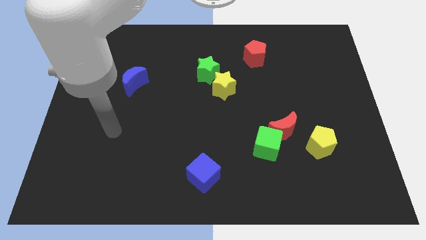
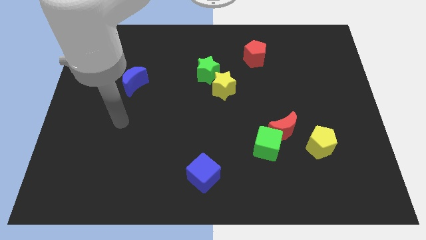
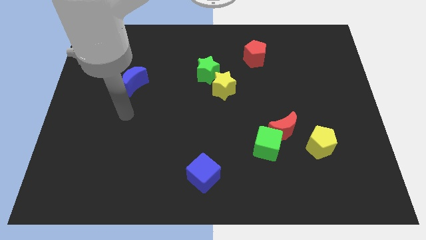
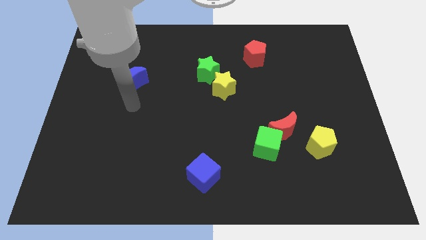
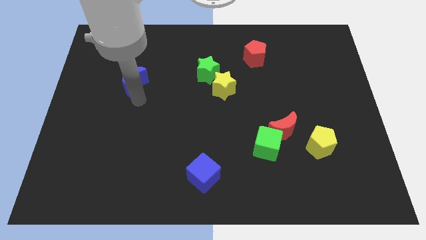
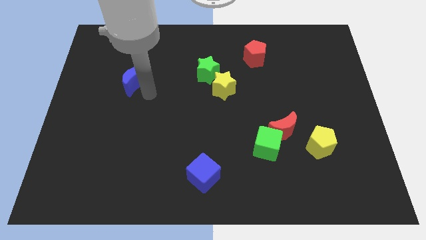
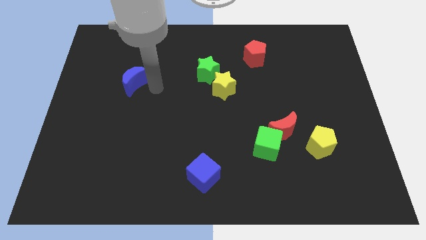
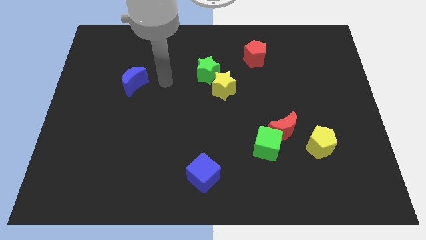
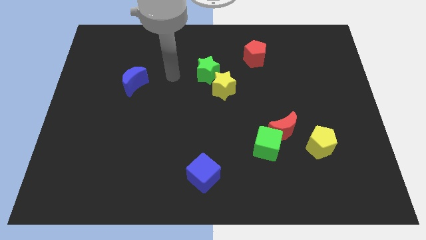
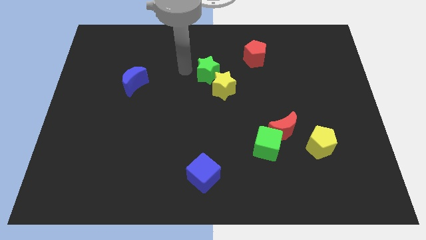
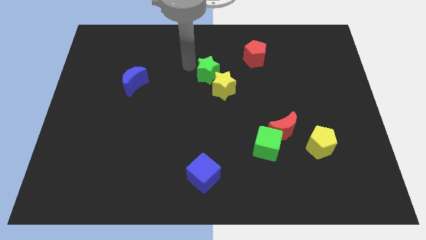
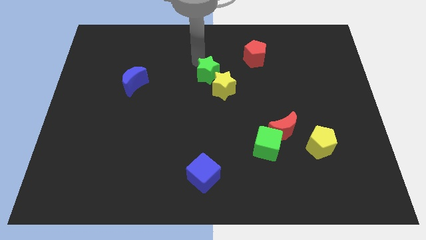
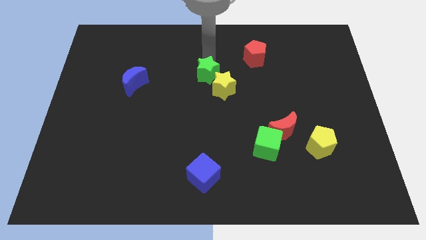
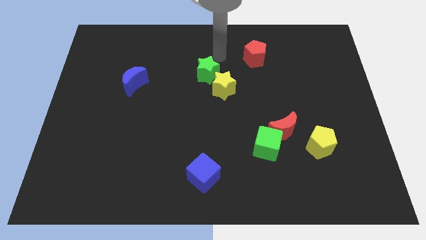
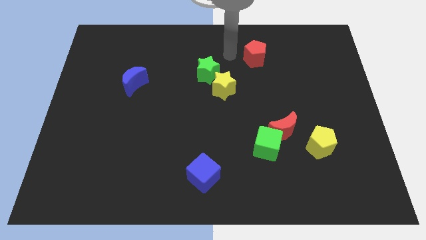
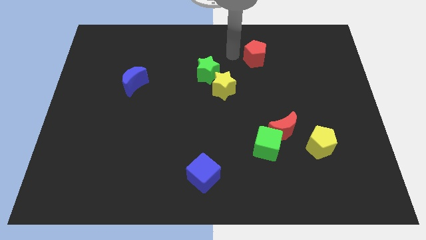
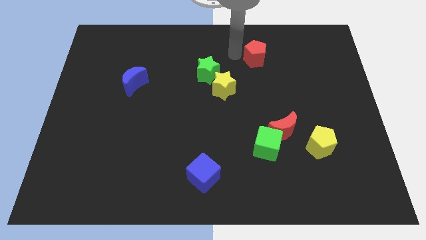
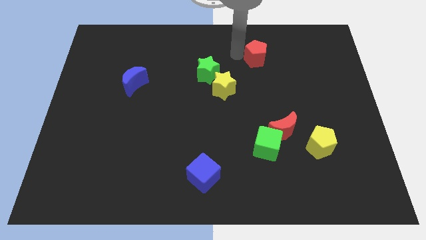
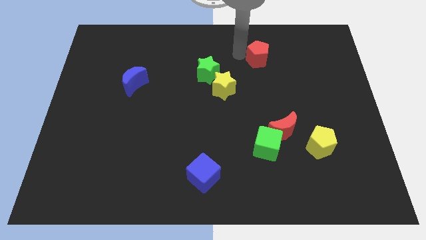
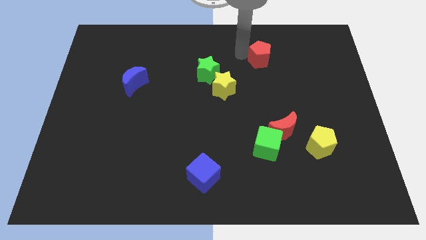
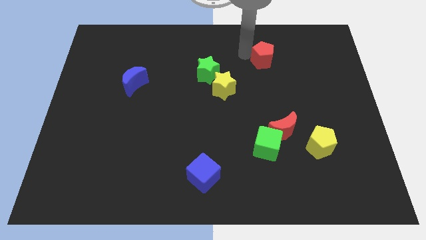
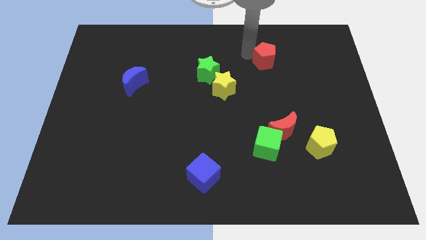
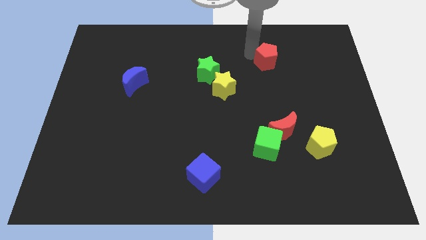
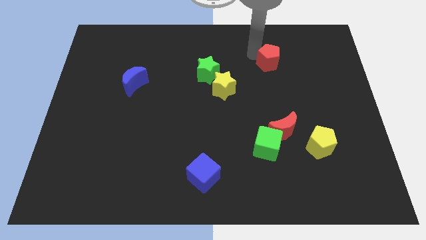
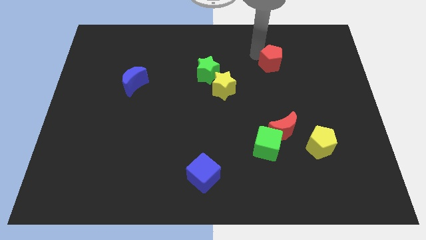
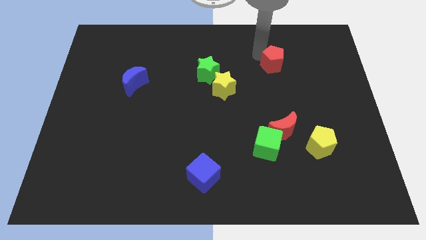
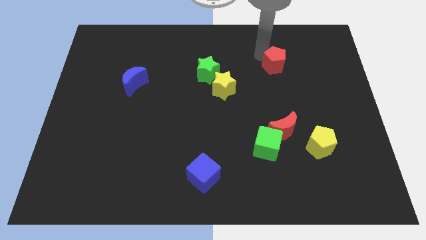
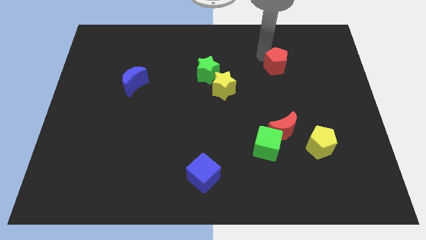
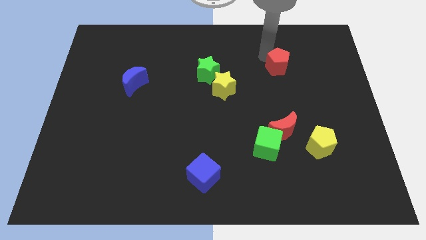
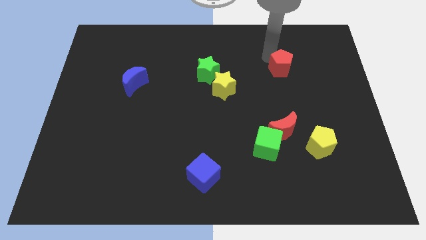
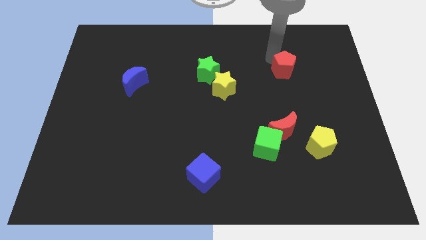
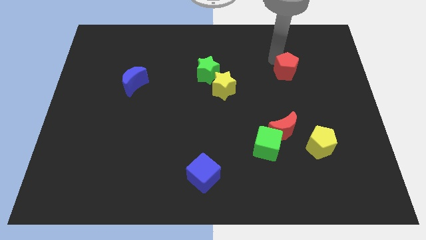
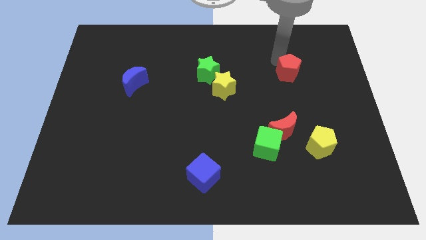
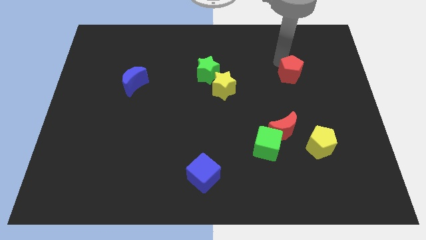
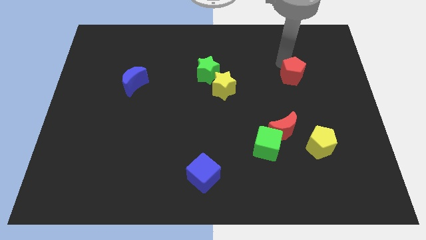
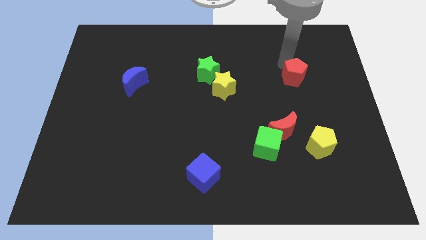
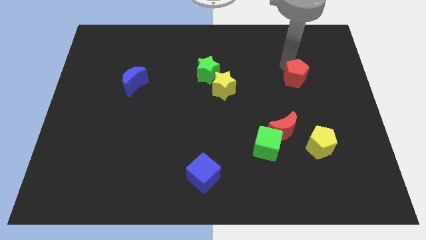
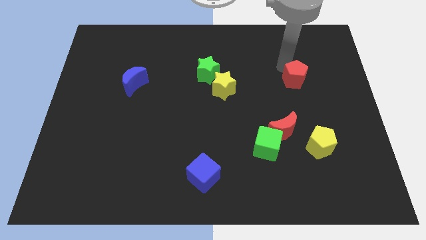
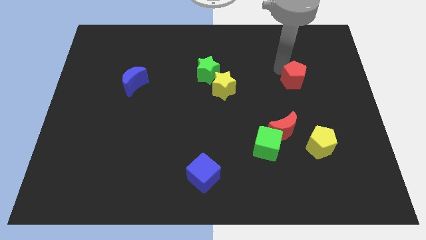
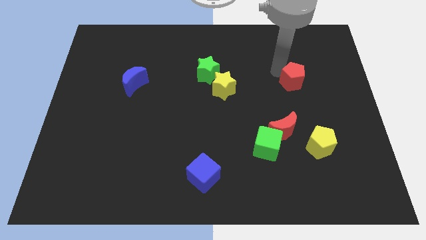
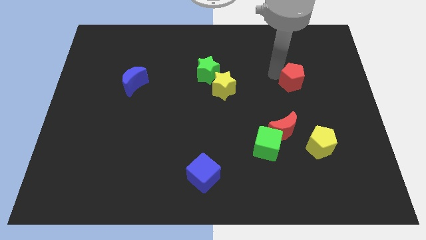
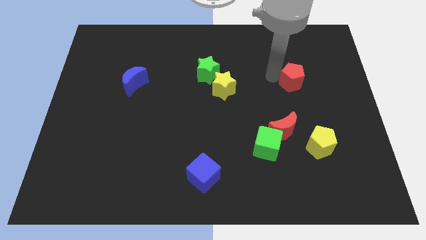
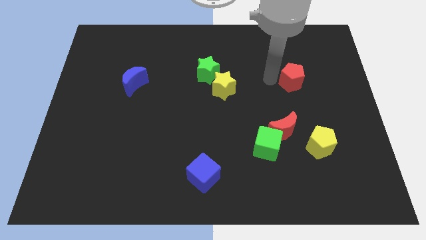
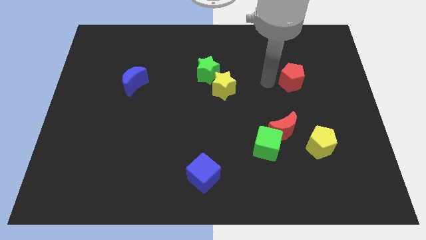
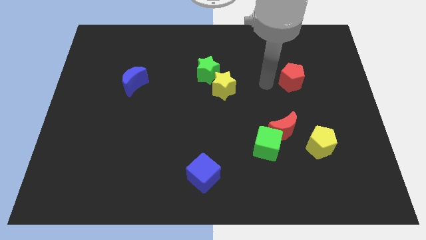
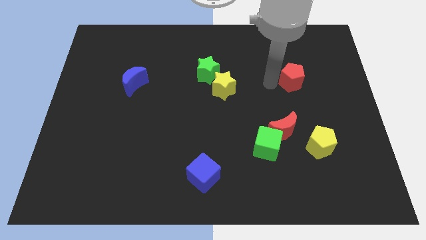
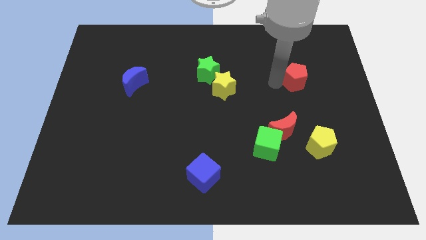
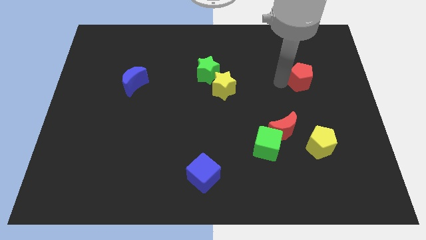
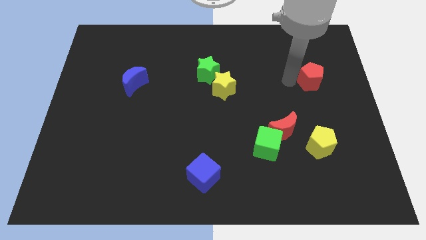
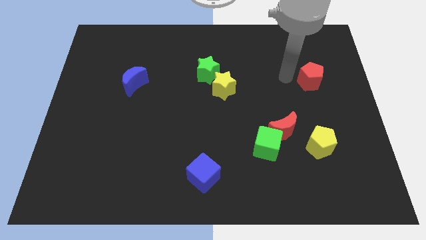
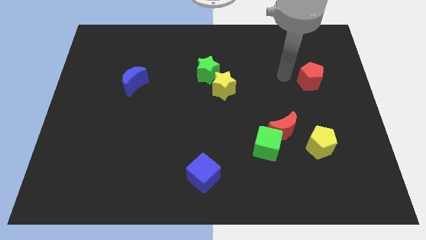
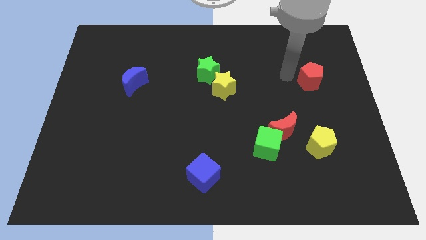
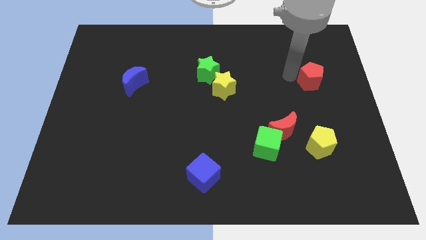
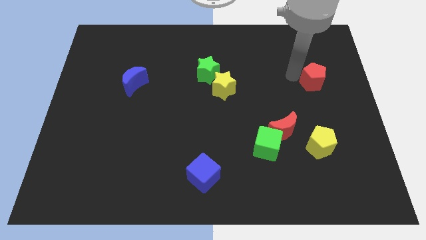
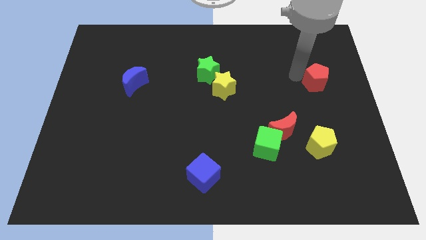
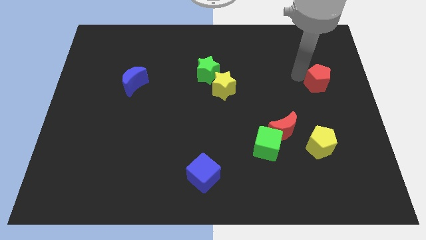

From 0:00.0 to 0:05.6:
move the red pentagon to the center right

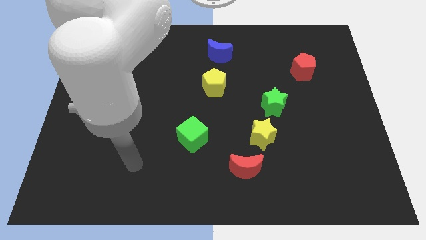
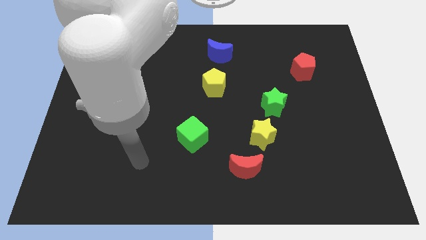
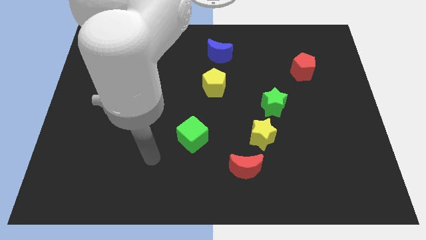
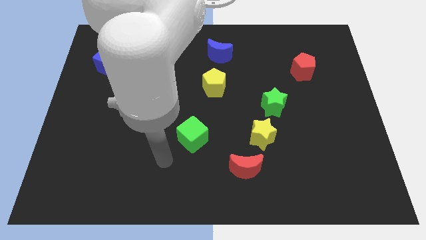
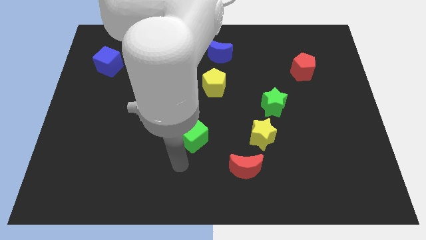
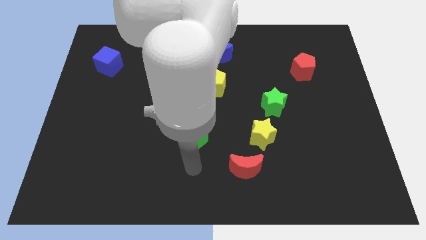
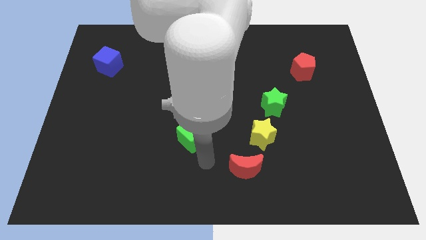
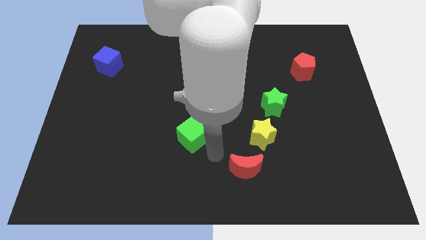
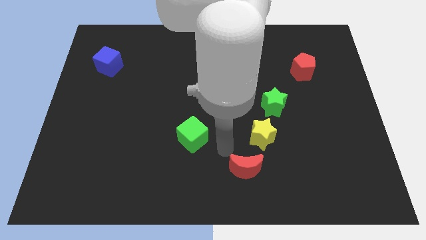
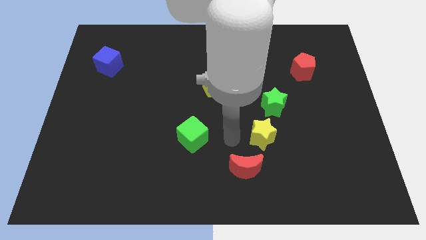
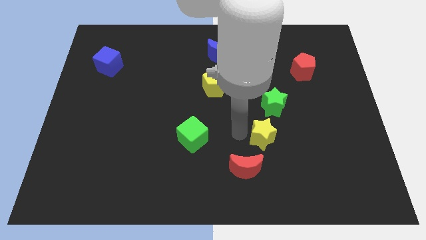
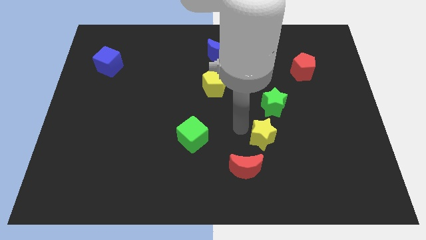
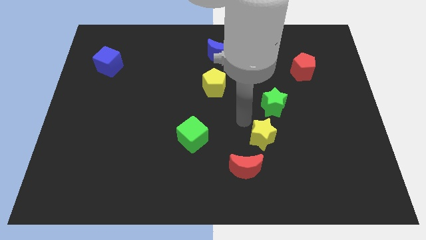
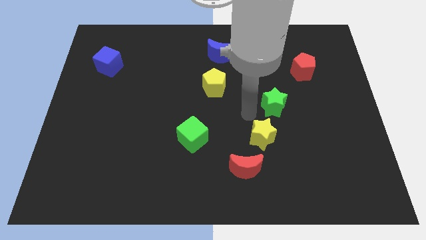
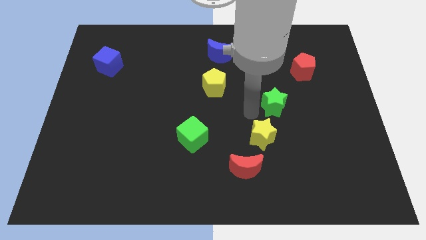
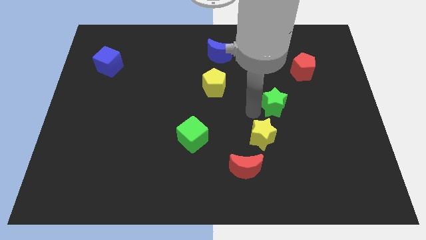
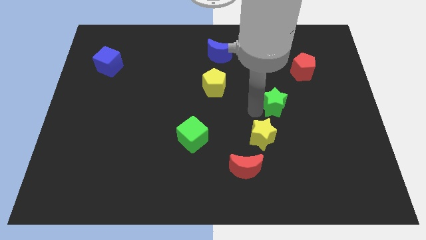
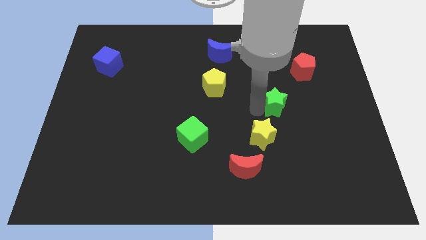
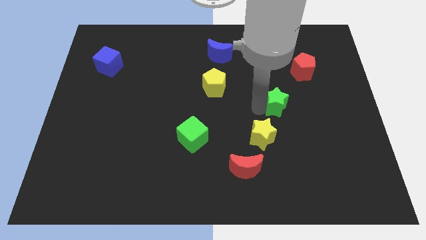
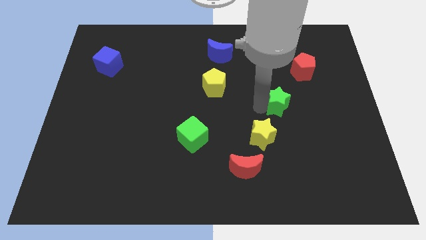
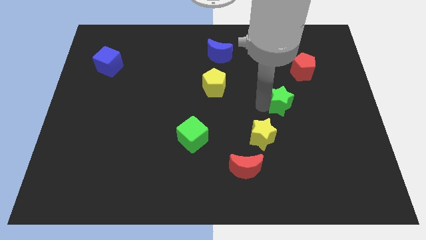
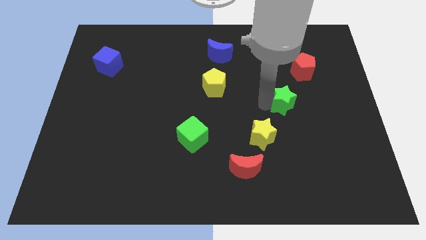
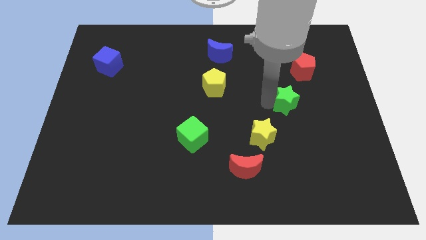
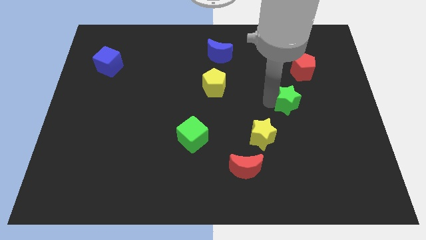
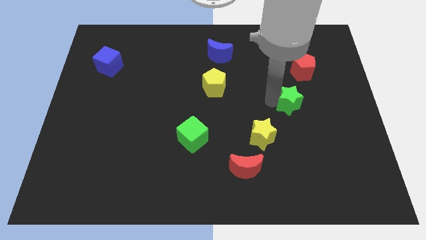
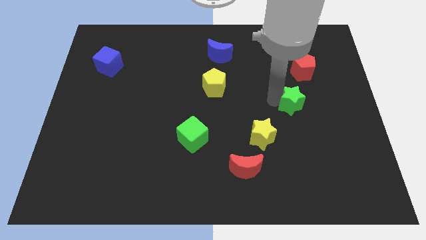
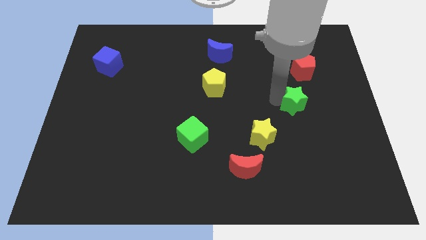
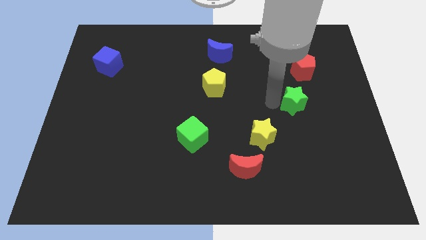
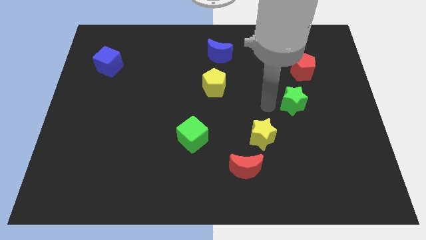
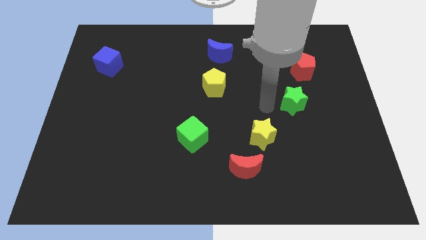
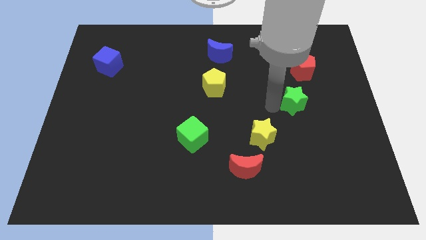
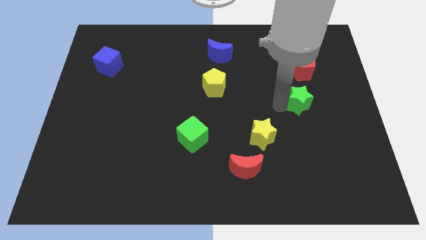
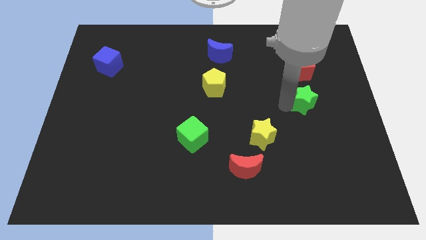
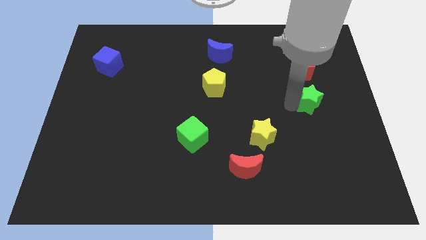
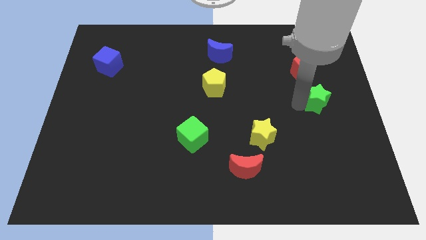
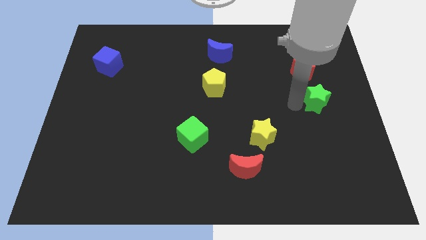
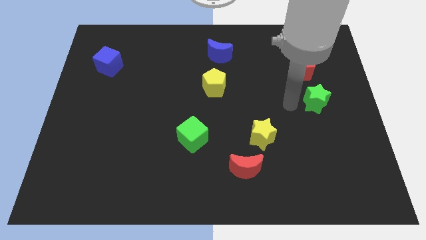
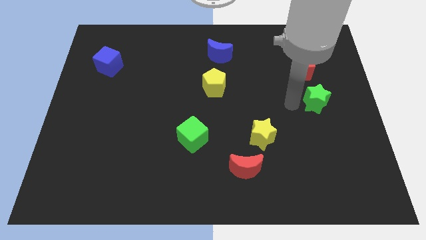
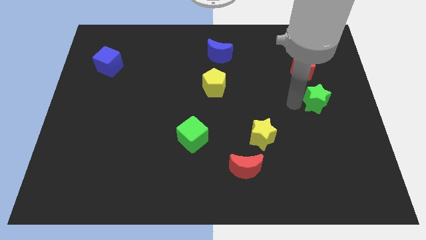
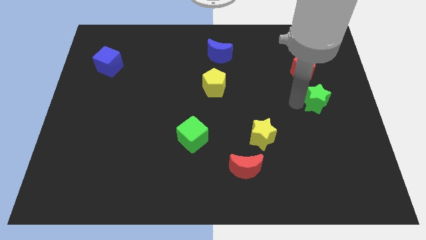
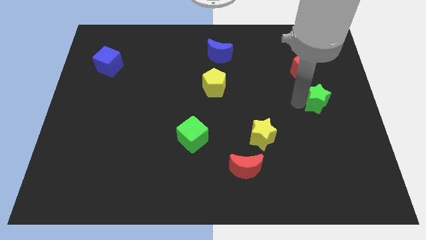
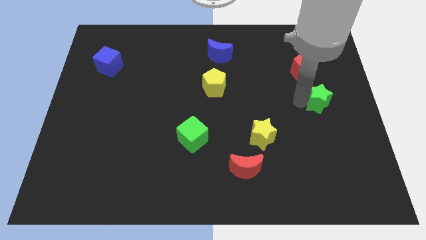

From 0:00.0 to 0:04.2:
slide the green star to the right side of the board
